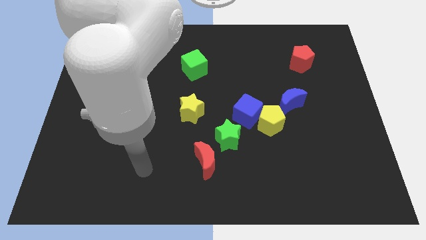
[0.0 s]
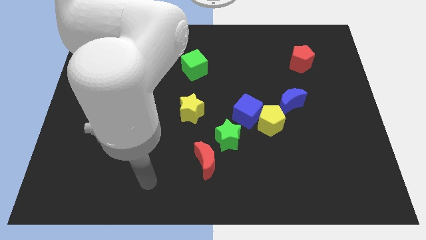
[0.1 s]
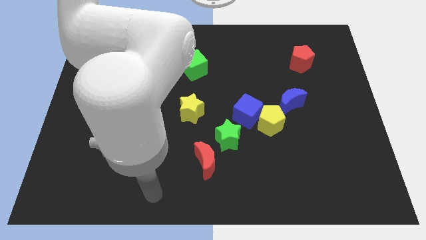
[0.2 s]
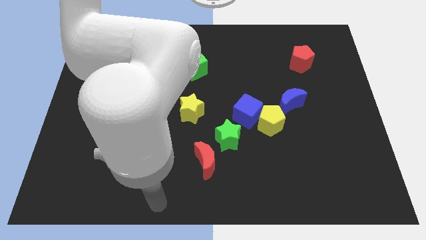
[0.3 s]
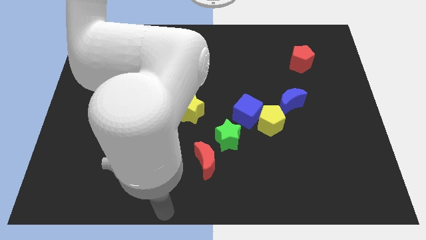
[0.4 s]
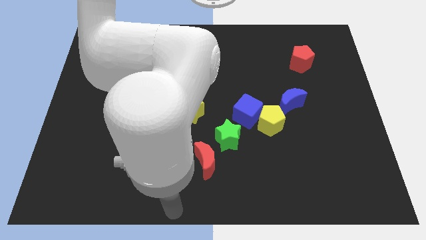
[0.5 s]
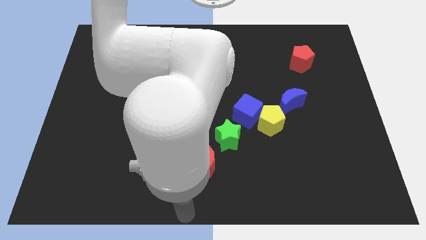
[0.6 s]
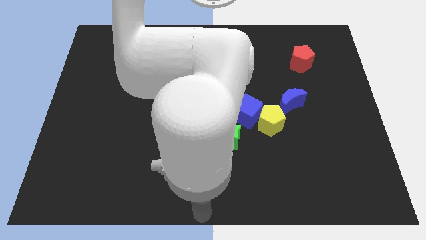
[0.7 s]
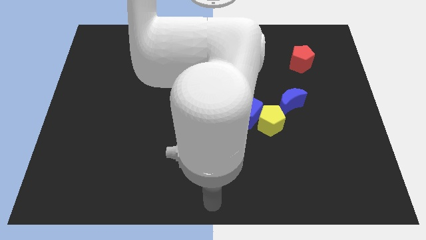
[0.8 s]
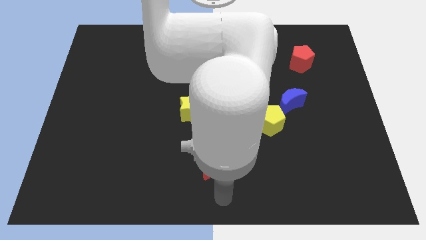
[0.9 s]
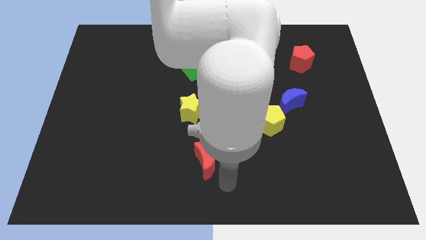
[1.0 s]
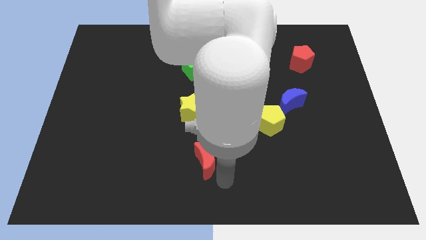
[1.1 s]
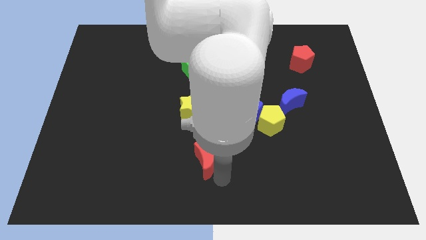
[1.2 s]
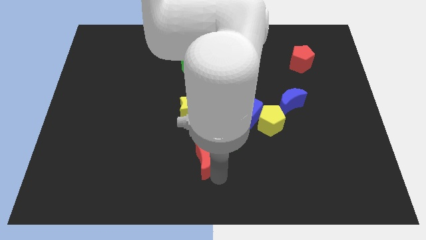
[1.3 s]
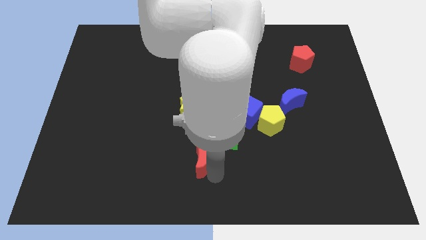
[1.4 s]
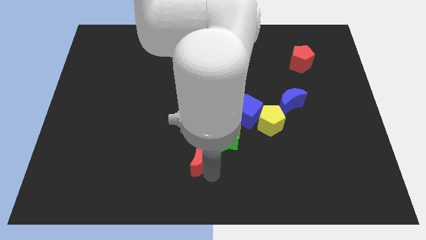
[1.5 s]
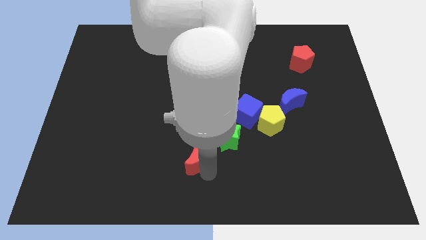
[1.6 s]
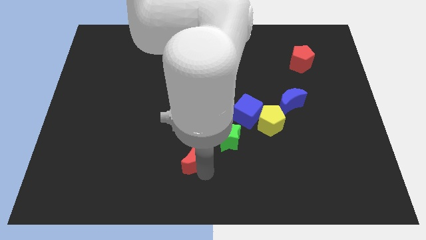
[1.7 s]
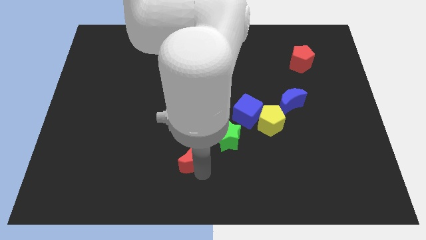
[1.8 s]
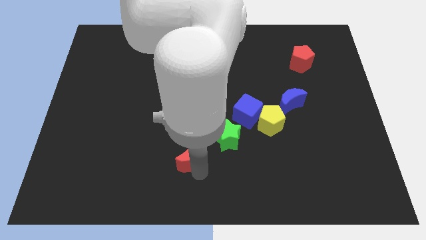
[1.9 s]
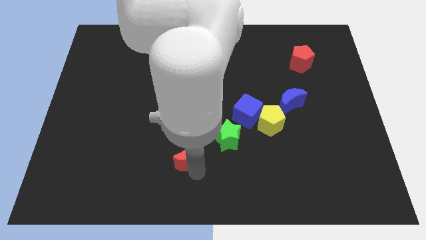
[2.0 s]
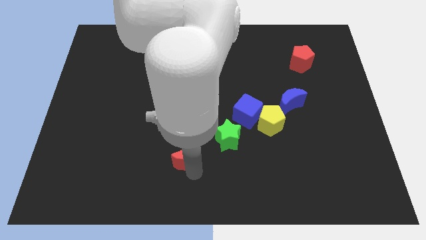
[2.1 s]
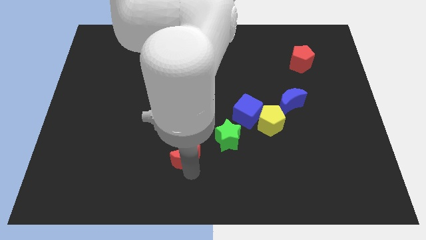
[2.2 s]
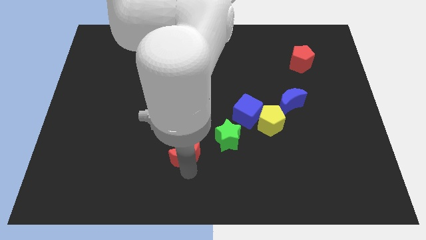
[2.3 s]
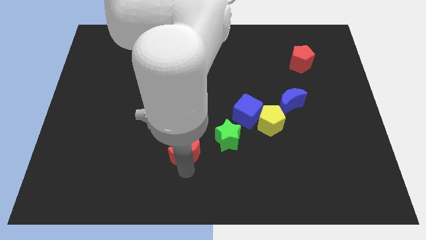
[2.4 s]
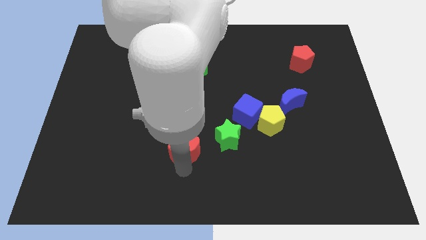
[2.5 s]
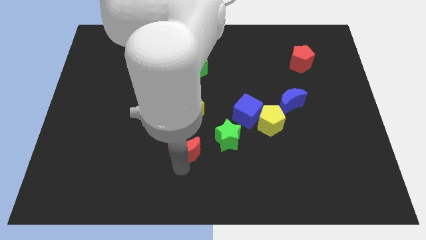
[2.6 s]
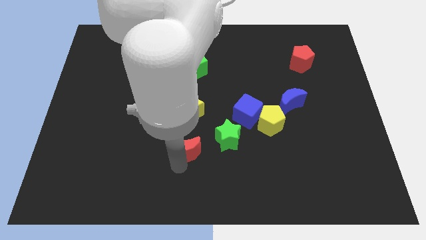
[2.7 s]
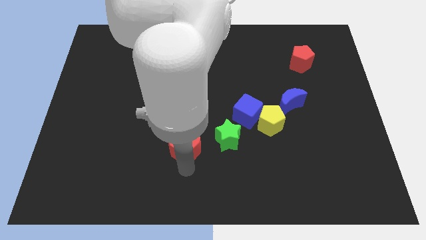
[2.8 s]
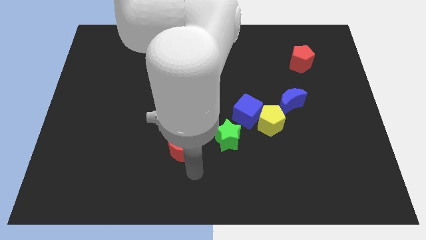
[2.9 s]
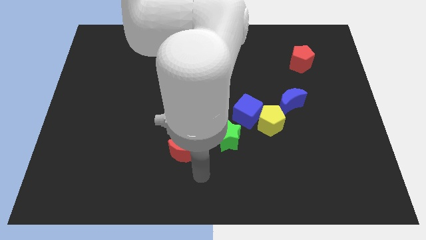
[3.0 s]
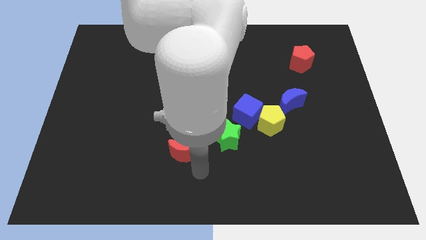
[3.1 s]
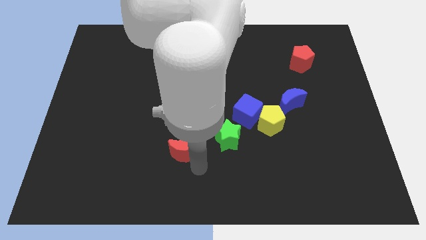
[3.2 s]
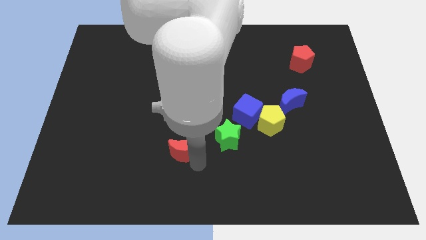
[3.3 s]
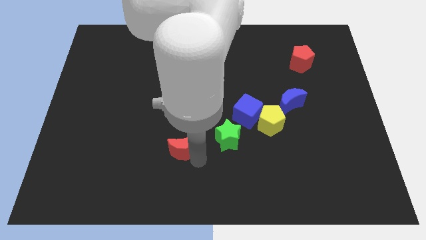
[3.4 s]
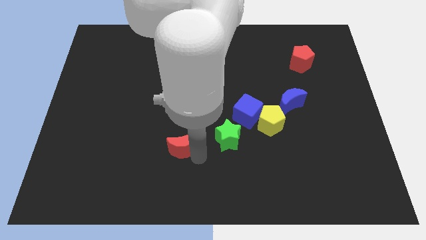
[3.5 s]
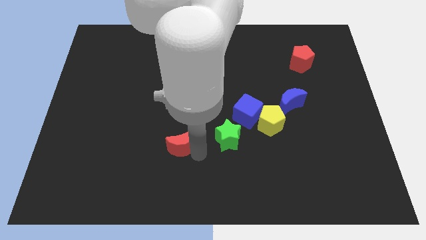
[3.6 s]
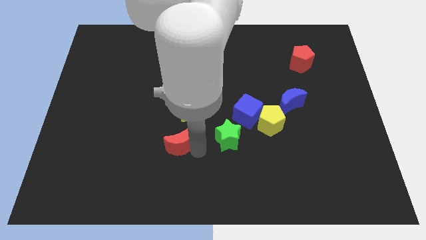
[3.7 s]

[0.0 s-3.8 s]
slightly push the red moon up and left

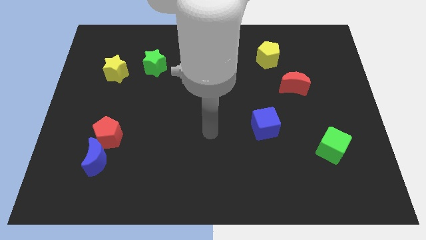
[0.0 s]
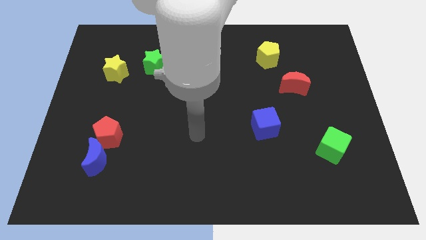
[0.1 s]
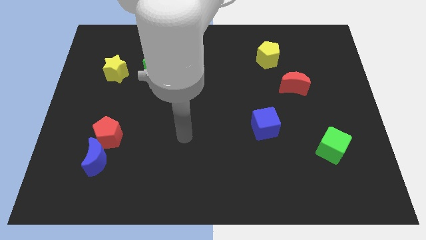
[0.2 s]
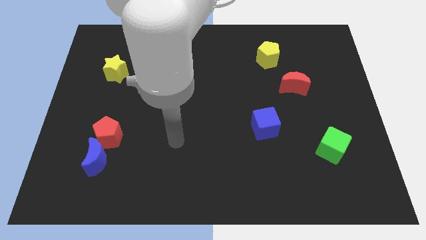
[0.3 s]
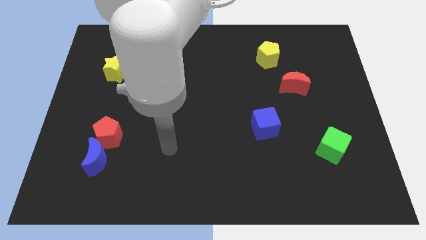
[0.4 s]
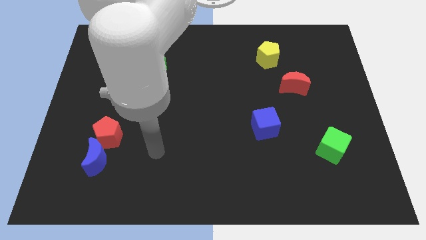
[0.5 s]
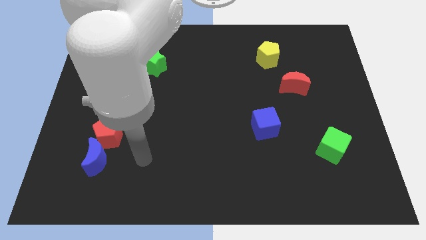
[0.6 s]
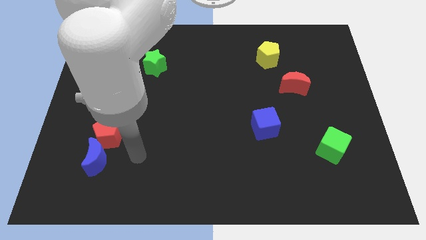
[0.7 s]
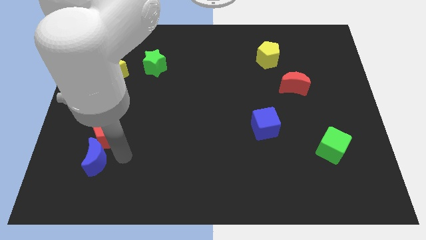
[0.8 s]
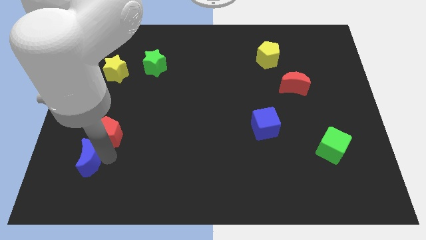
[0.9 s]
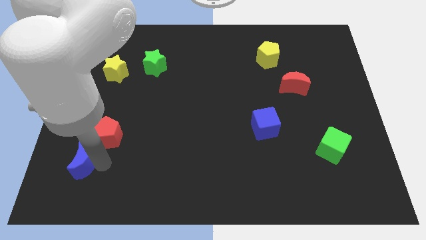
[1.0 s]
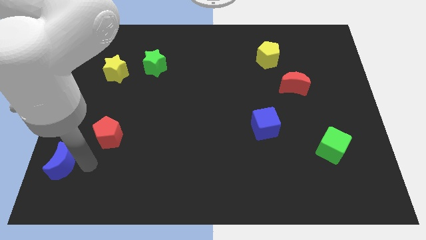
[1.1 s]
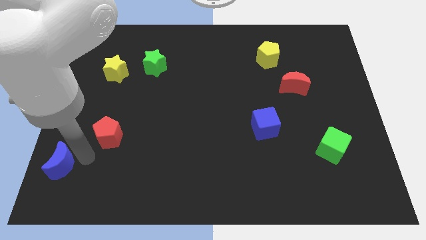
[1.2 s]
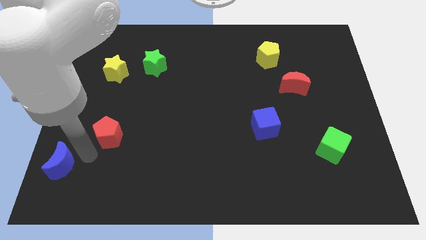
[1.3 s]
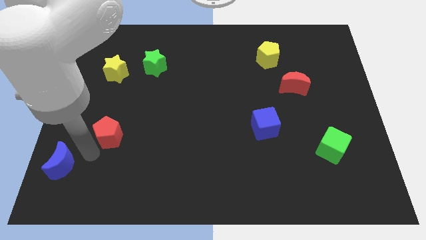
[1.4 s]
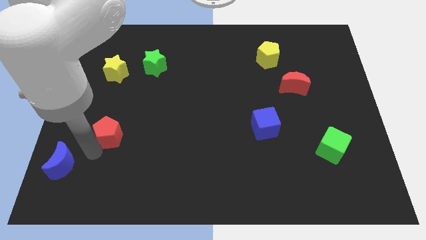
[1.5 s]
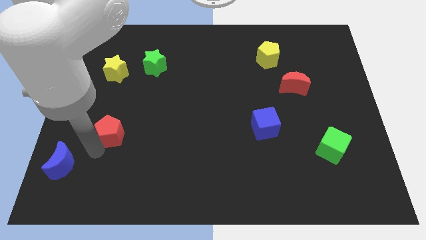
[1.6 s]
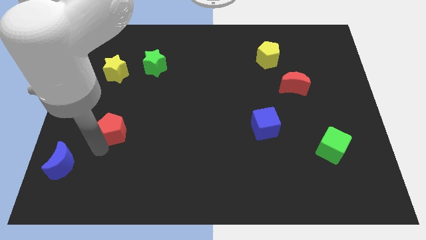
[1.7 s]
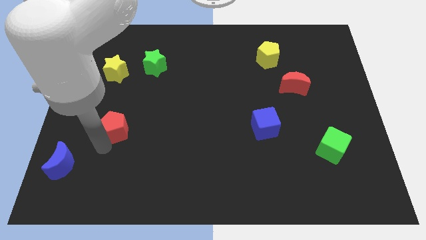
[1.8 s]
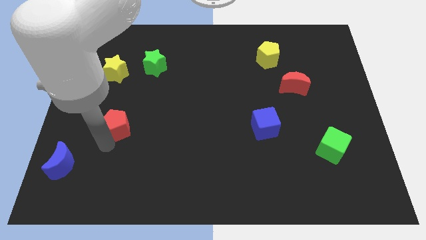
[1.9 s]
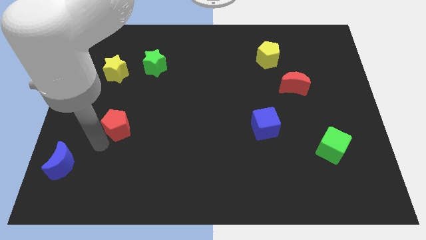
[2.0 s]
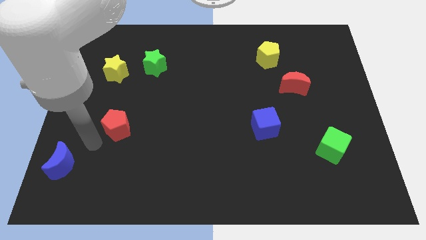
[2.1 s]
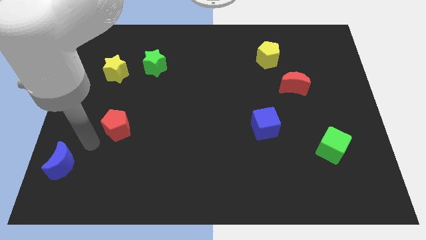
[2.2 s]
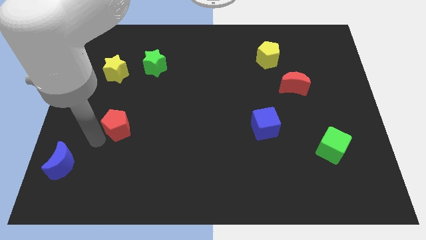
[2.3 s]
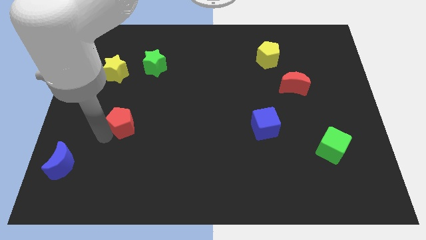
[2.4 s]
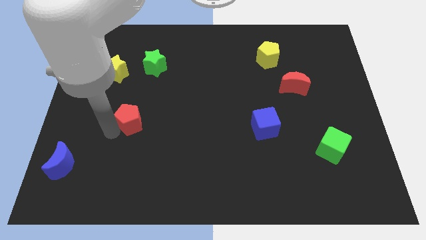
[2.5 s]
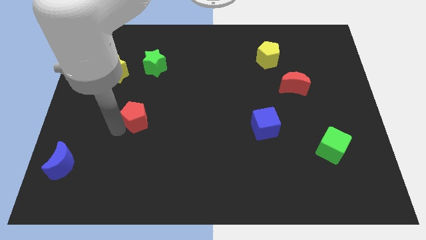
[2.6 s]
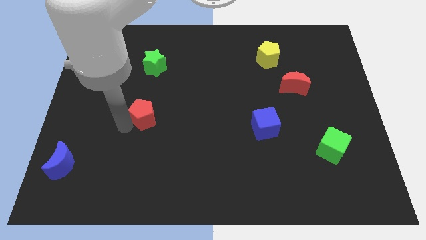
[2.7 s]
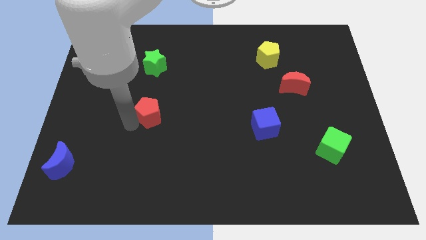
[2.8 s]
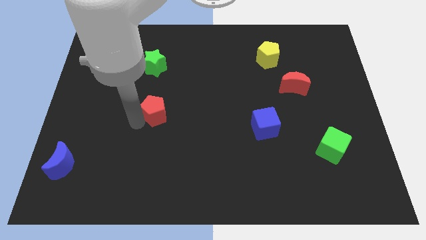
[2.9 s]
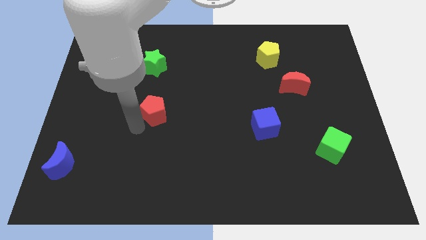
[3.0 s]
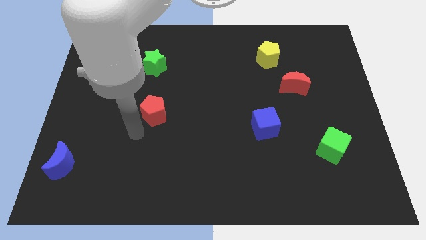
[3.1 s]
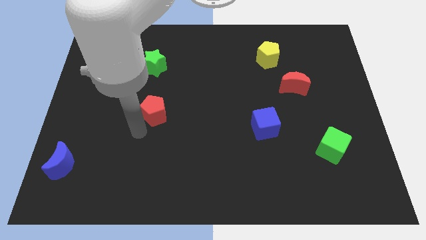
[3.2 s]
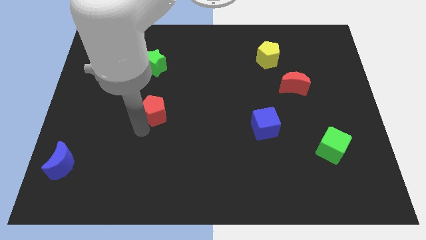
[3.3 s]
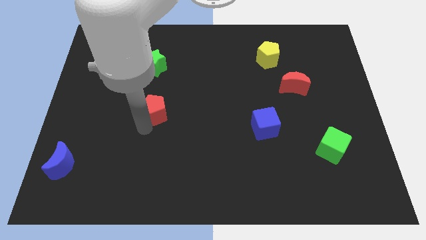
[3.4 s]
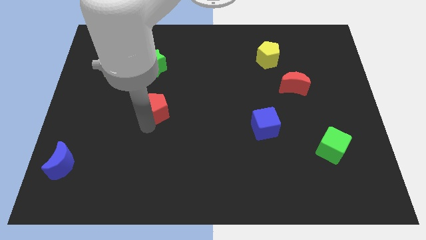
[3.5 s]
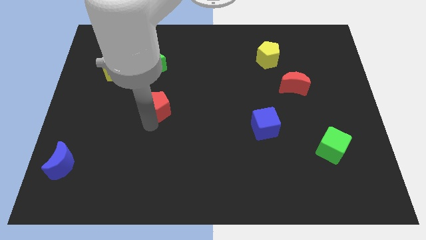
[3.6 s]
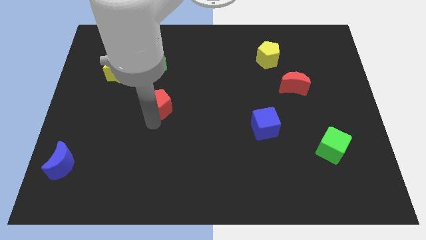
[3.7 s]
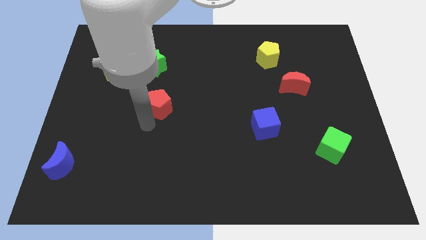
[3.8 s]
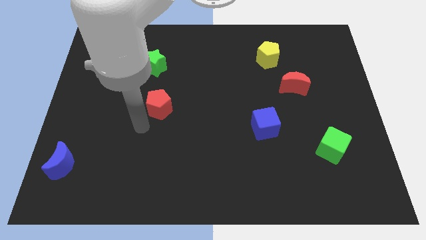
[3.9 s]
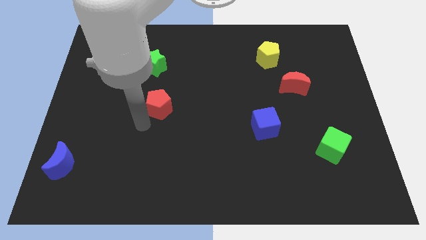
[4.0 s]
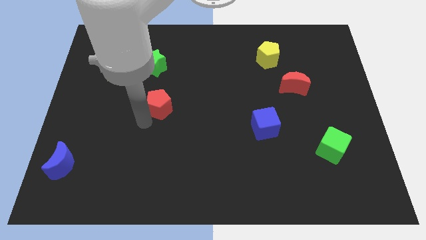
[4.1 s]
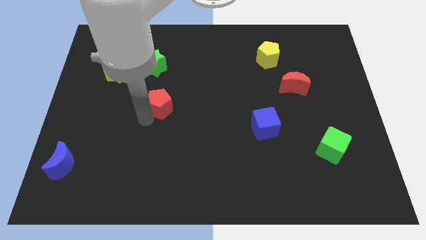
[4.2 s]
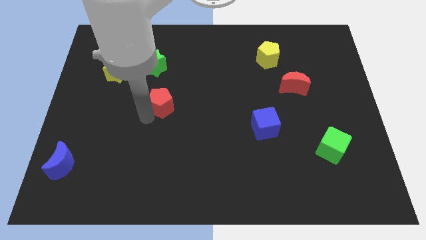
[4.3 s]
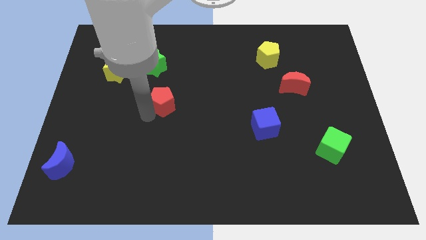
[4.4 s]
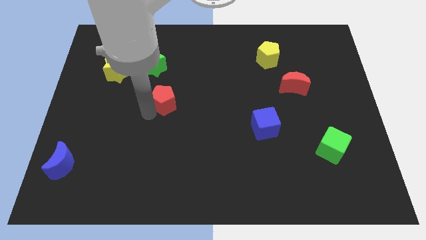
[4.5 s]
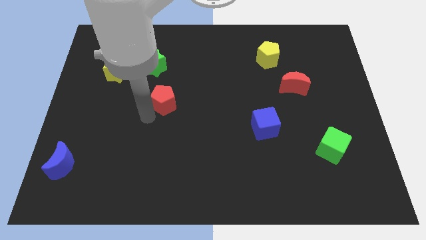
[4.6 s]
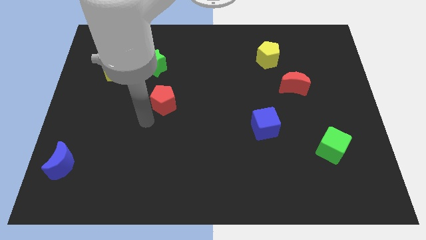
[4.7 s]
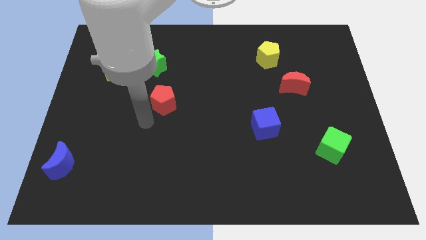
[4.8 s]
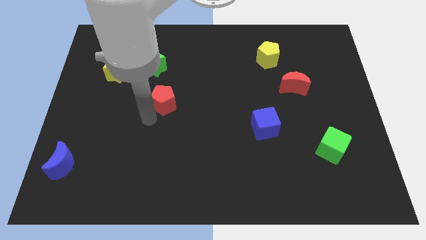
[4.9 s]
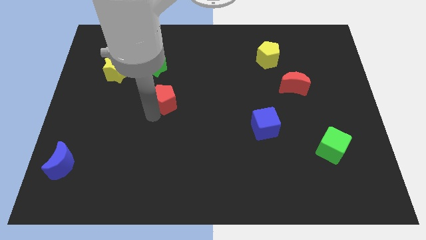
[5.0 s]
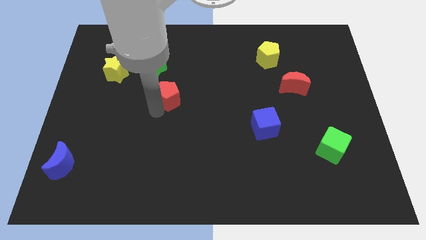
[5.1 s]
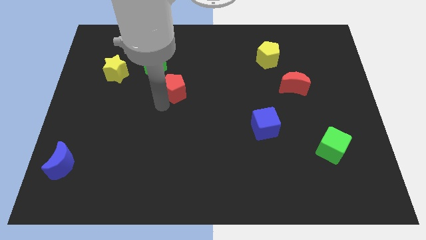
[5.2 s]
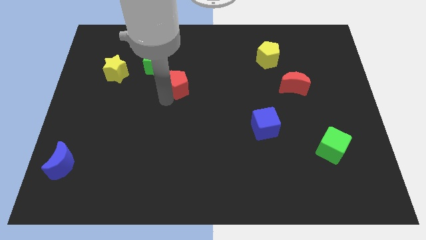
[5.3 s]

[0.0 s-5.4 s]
push the red pentagon diagonally upwards and right
